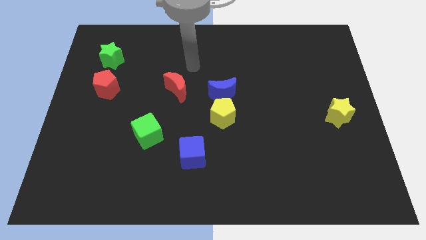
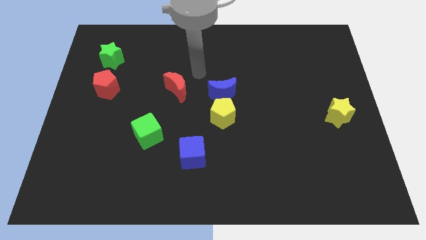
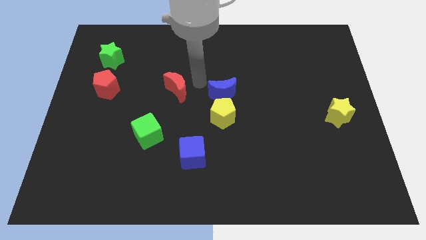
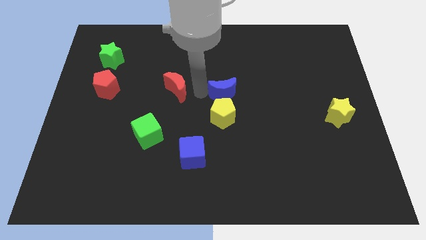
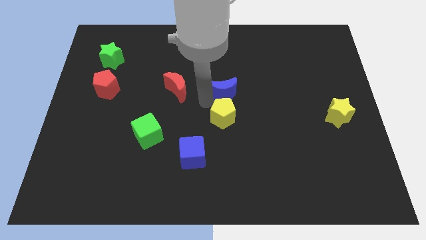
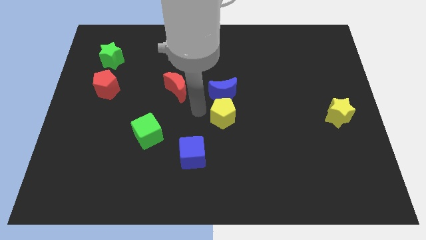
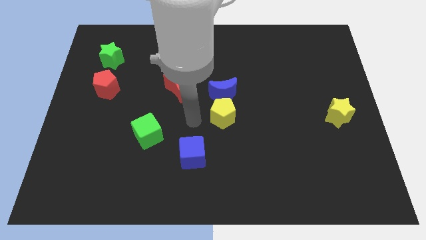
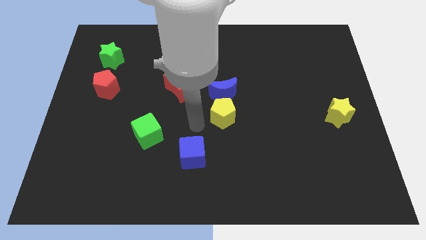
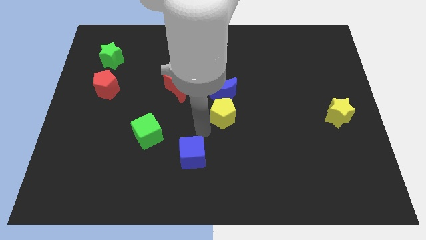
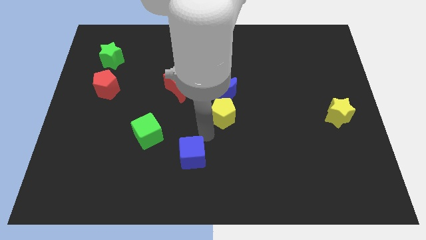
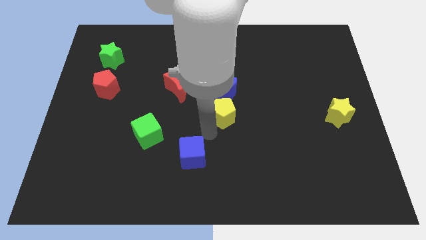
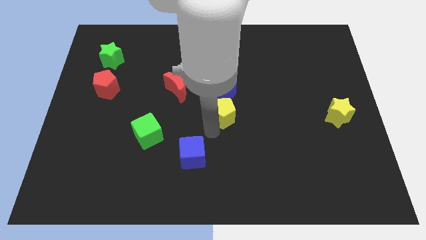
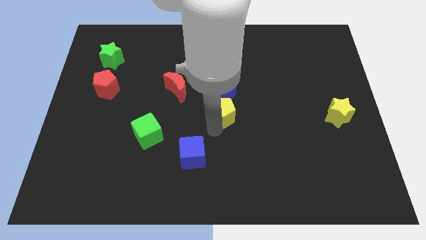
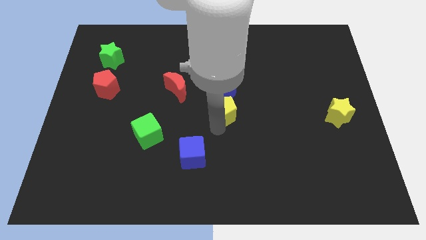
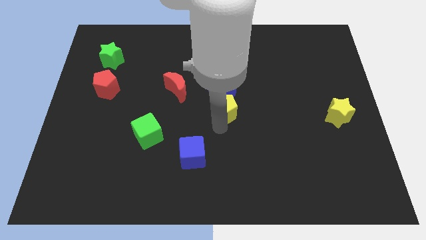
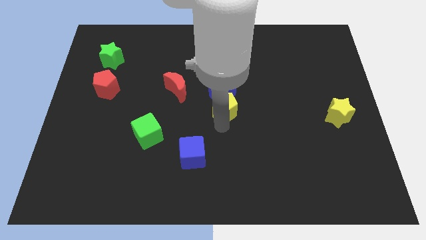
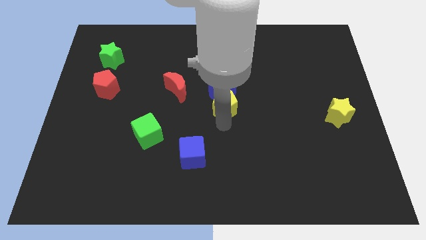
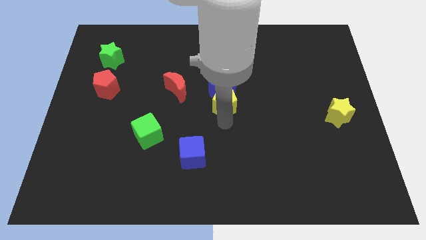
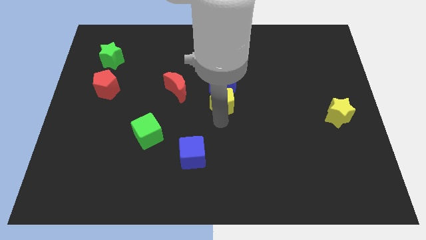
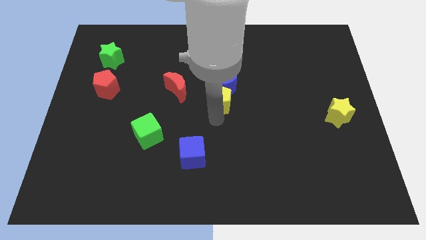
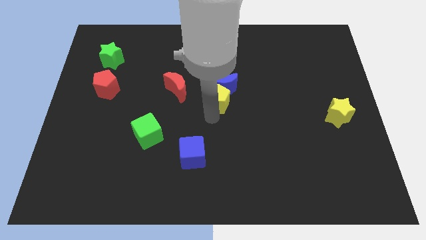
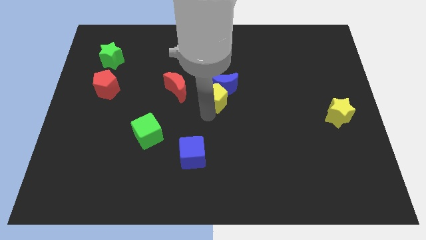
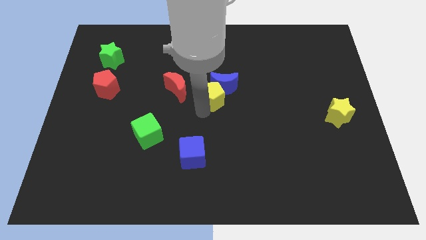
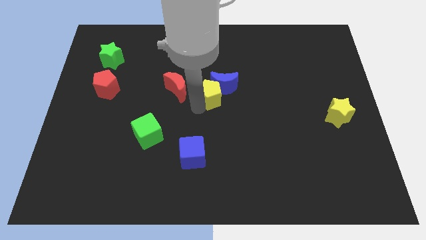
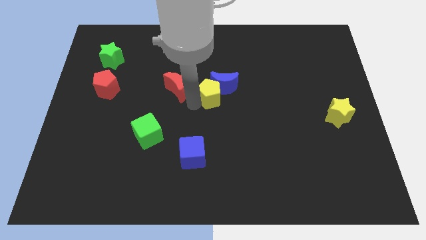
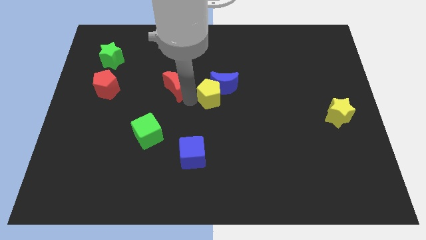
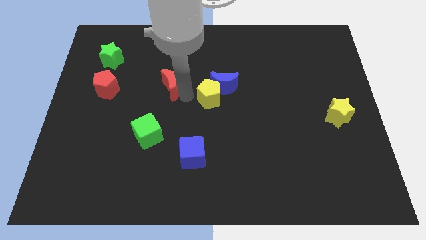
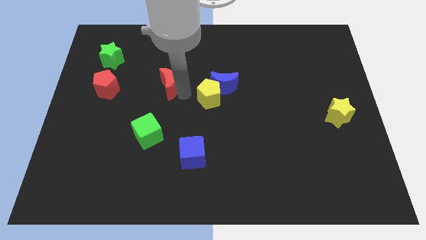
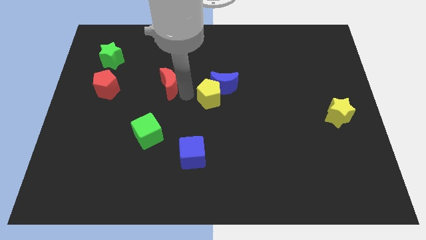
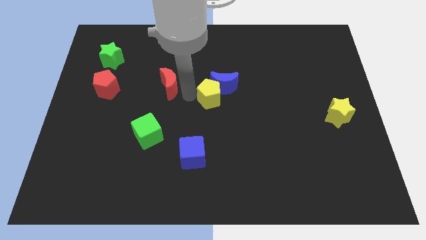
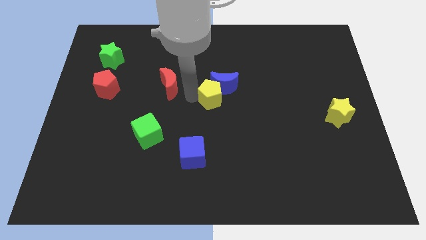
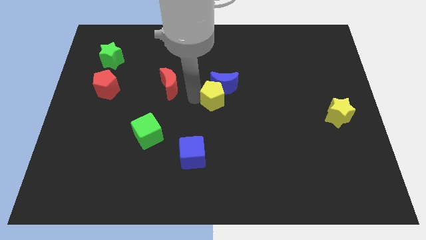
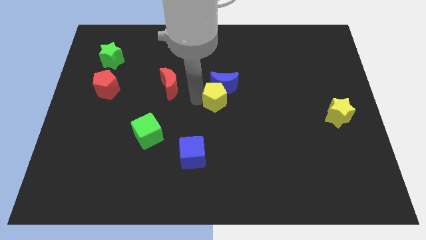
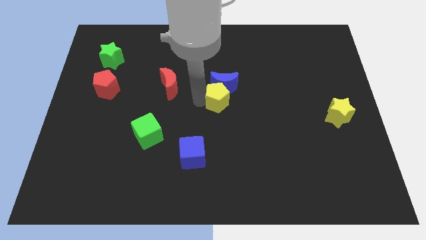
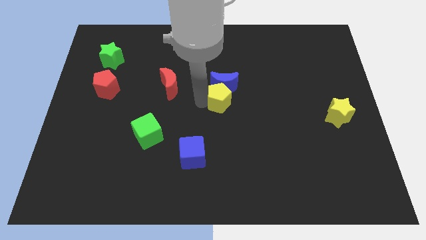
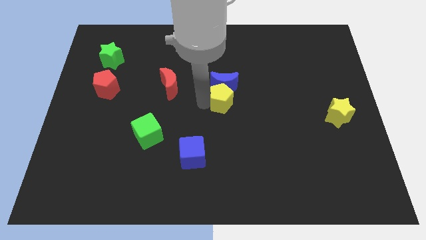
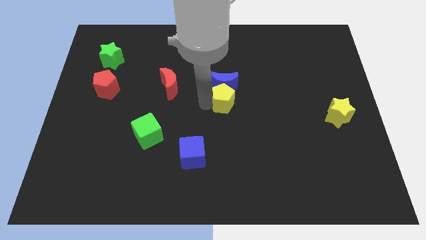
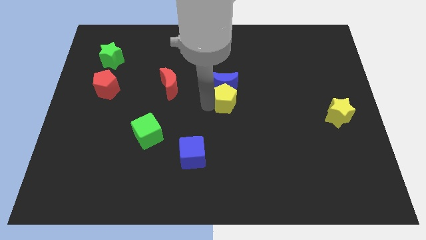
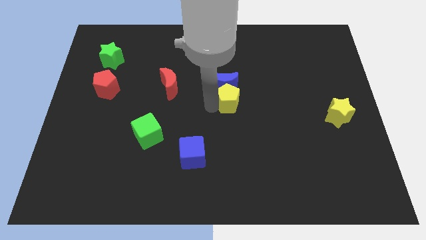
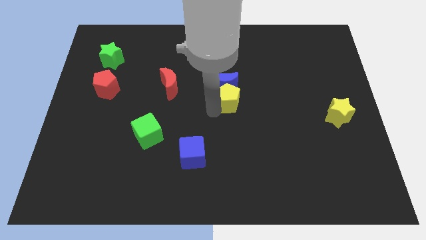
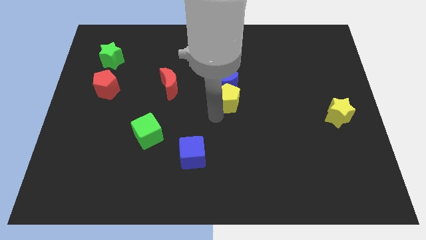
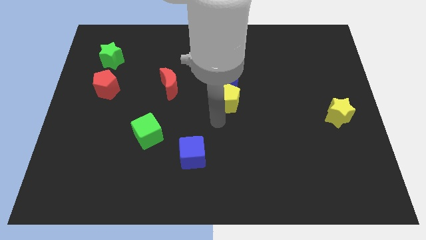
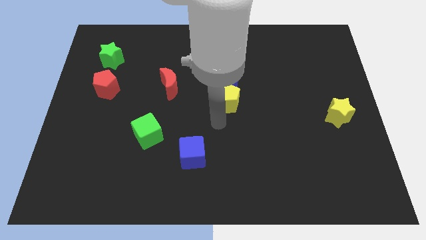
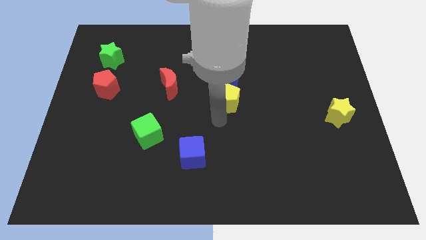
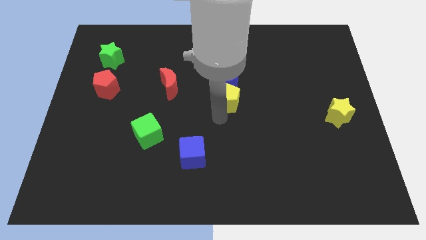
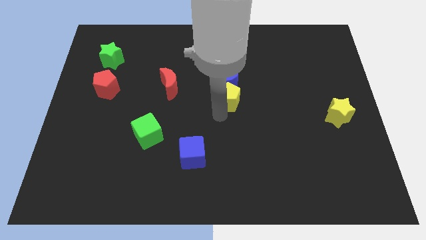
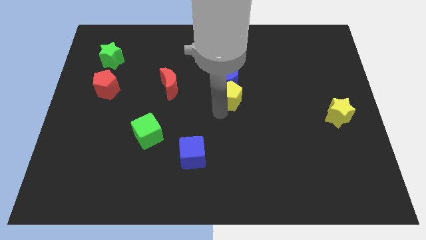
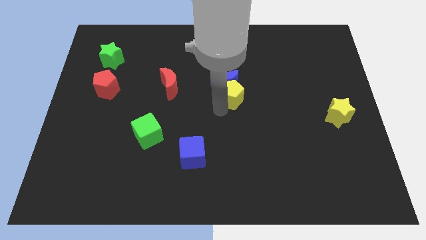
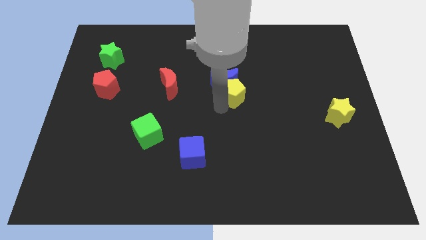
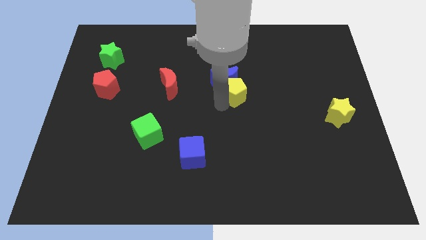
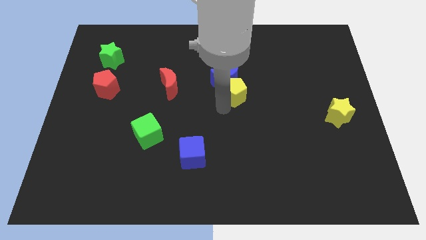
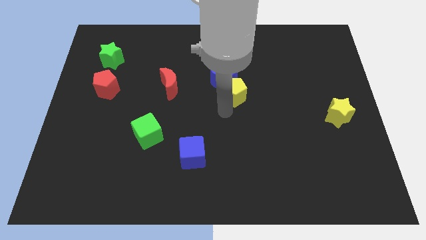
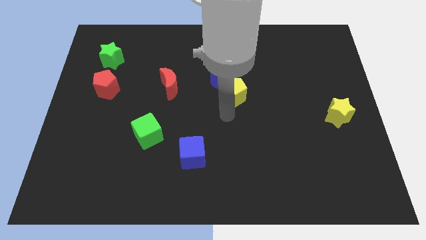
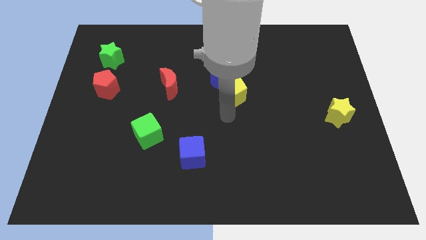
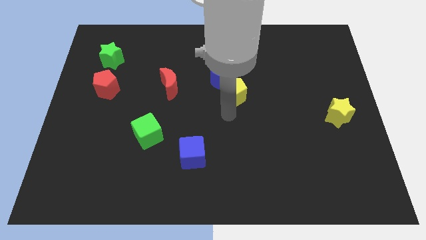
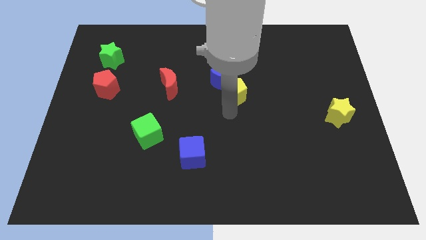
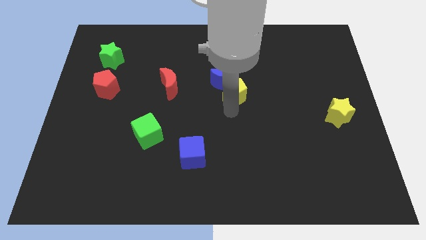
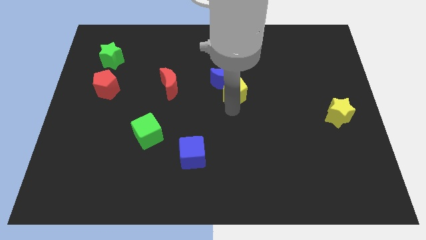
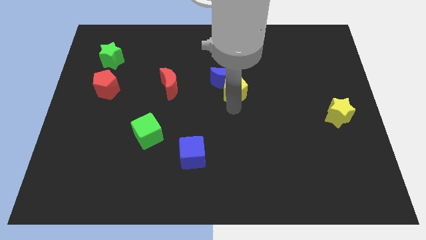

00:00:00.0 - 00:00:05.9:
push the yellow pentagon a bit upwards

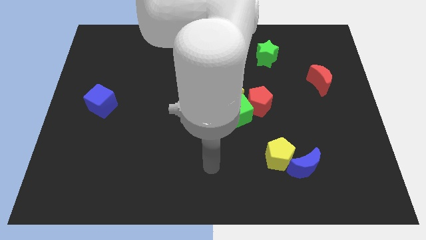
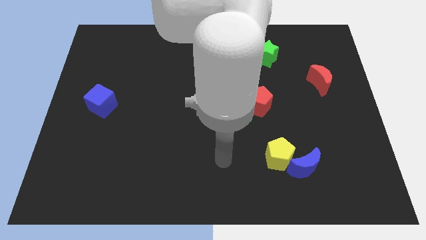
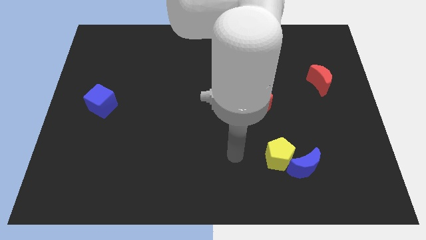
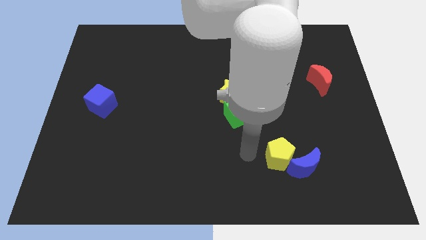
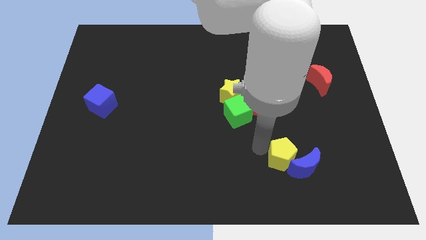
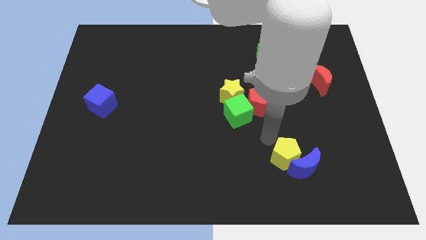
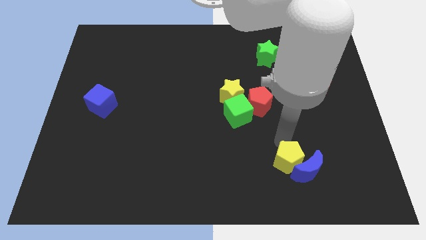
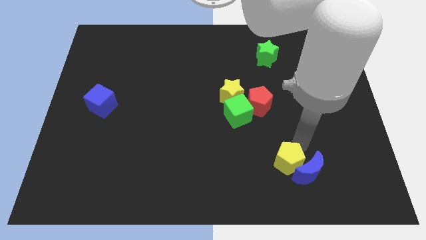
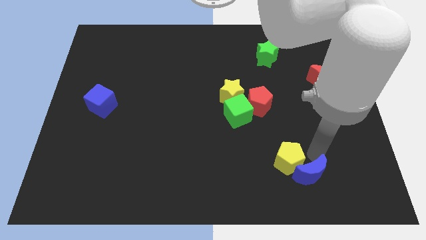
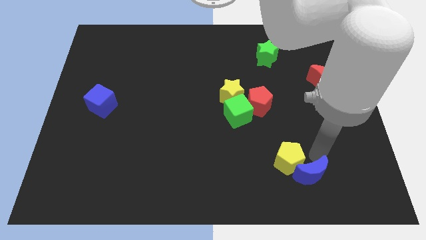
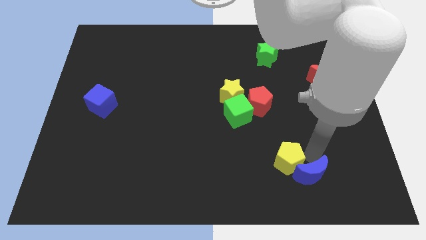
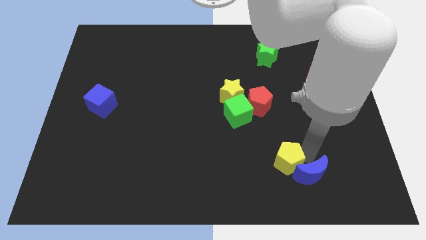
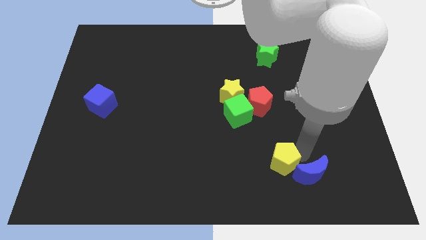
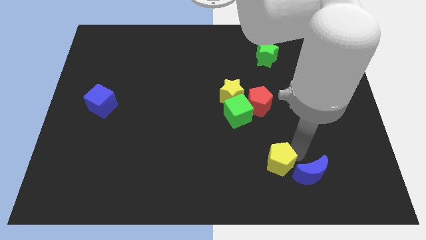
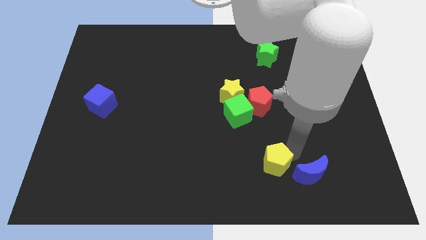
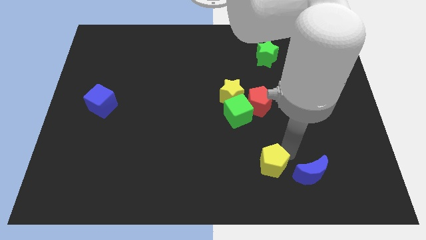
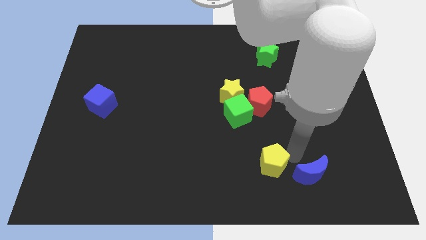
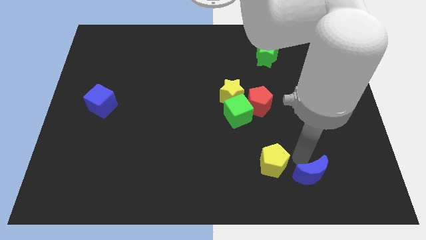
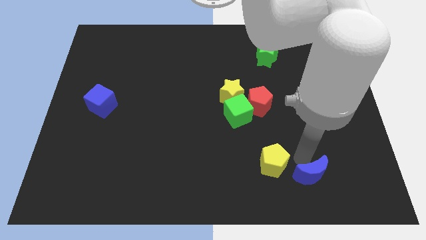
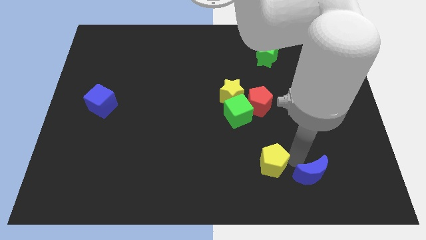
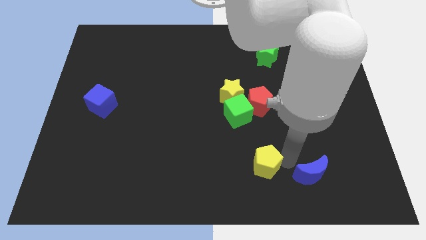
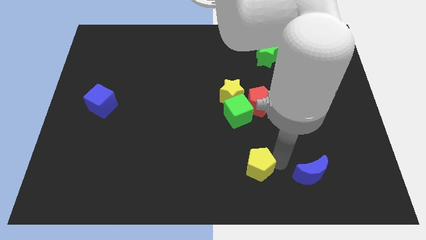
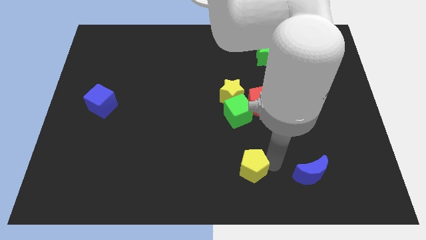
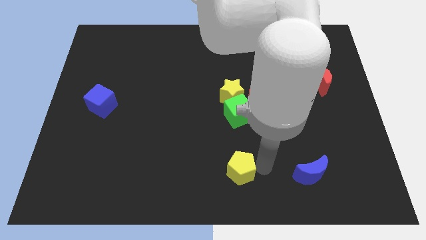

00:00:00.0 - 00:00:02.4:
slightly slide the yellow pentagon to the left
